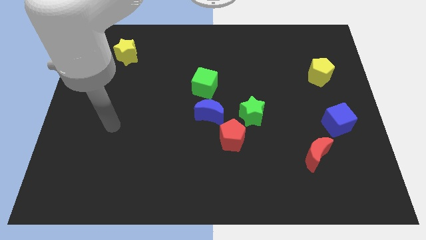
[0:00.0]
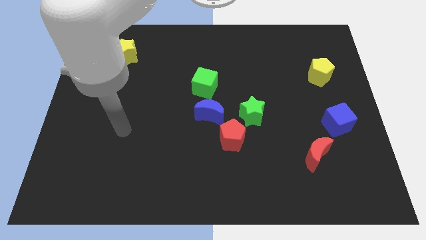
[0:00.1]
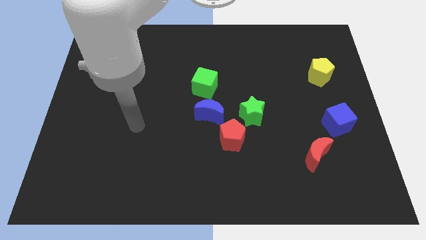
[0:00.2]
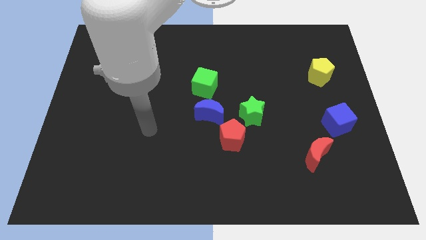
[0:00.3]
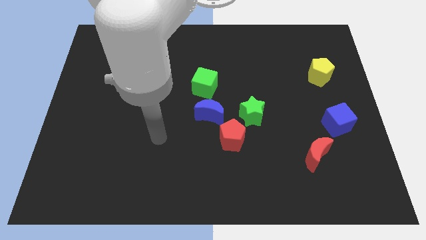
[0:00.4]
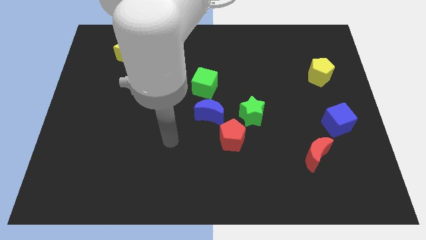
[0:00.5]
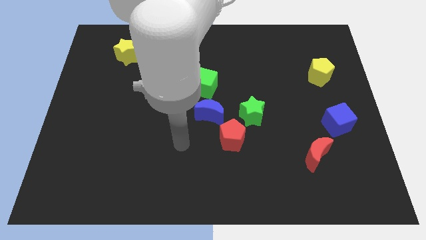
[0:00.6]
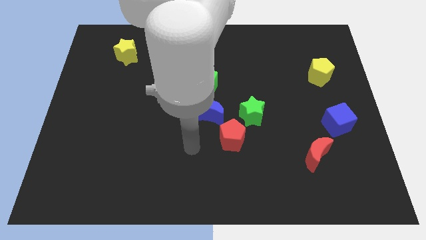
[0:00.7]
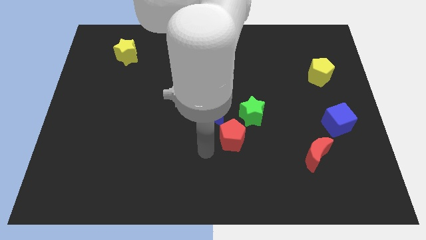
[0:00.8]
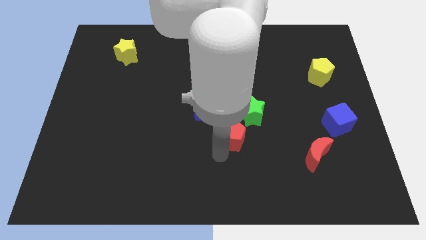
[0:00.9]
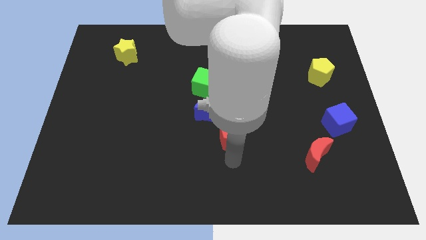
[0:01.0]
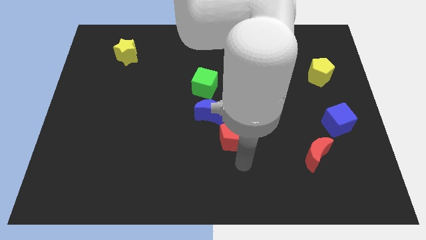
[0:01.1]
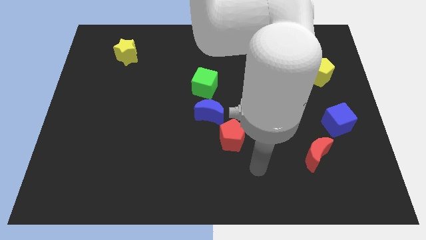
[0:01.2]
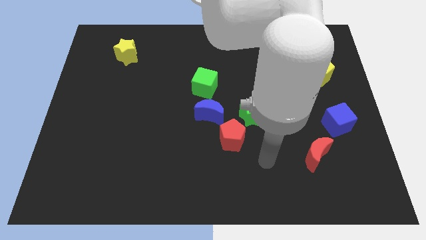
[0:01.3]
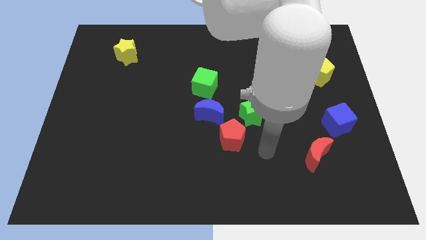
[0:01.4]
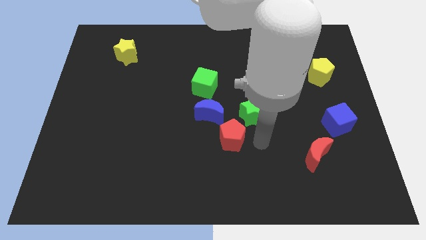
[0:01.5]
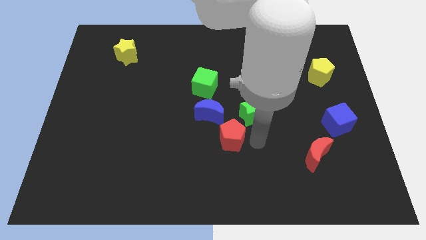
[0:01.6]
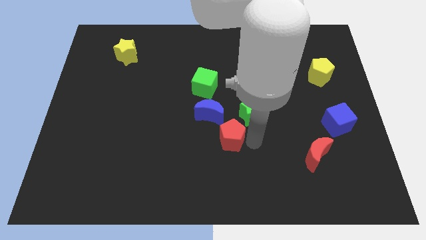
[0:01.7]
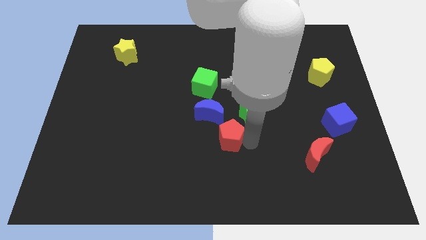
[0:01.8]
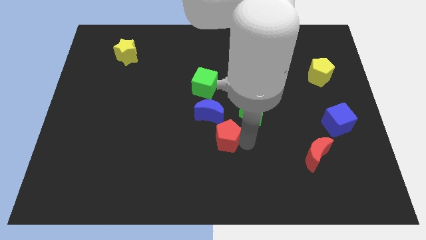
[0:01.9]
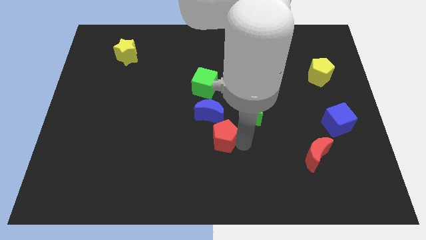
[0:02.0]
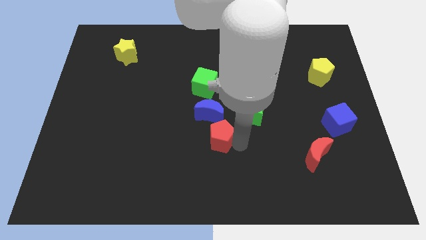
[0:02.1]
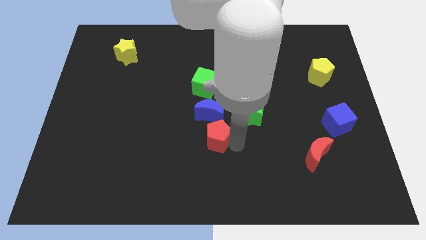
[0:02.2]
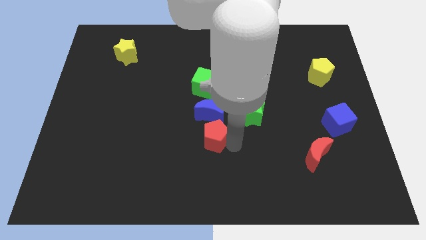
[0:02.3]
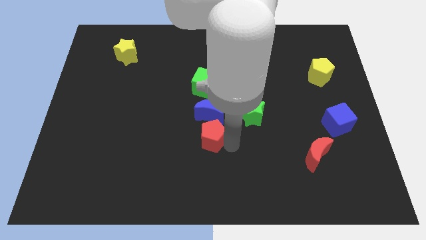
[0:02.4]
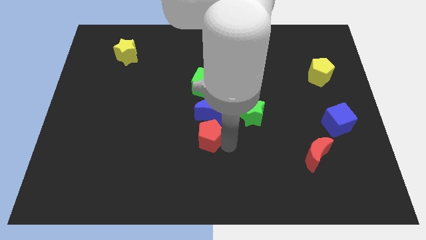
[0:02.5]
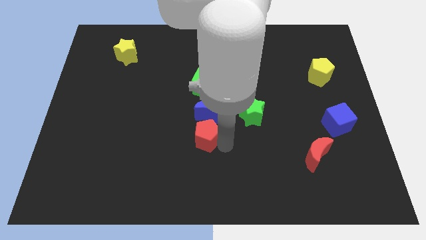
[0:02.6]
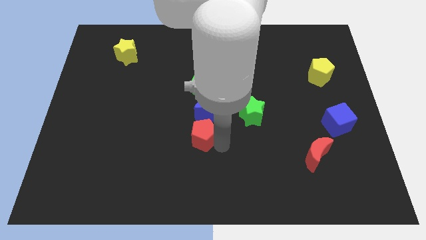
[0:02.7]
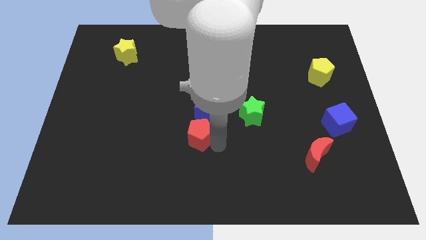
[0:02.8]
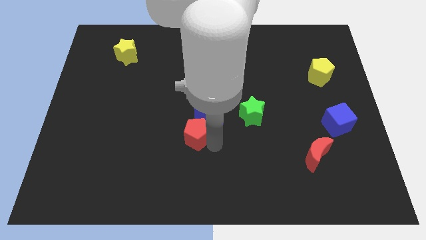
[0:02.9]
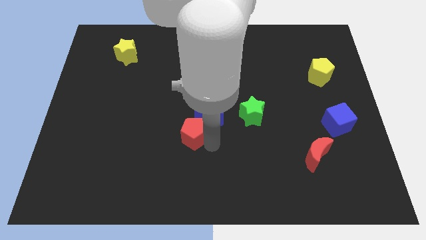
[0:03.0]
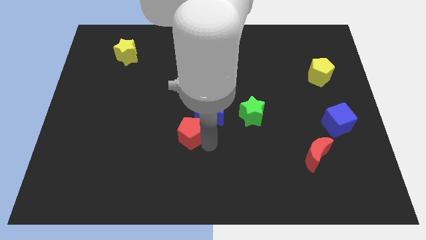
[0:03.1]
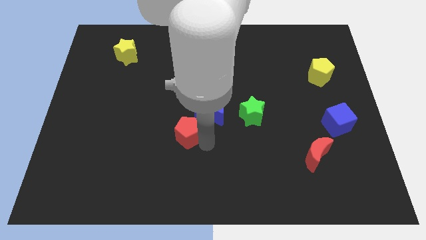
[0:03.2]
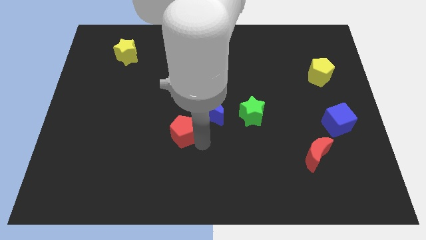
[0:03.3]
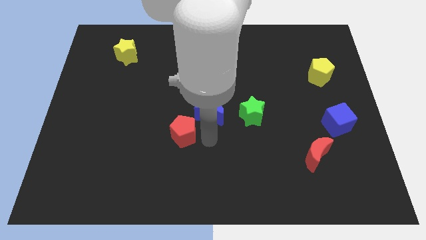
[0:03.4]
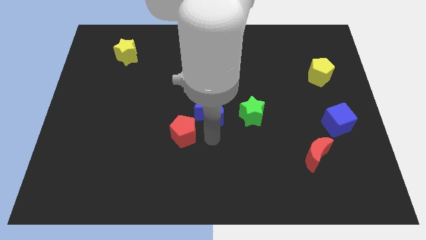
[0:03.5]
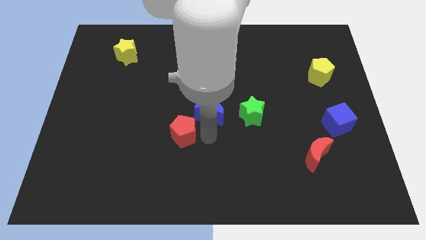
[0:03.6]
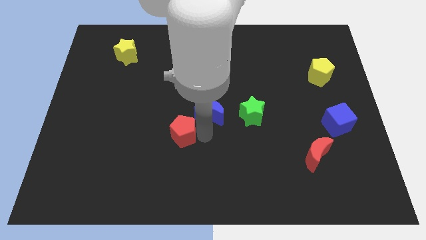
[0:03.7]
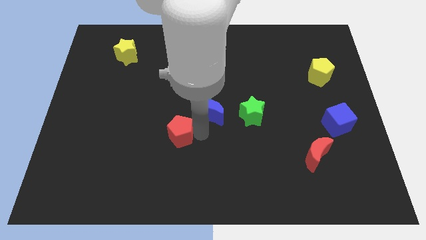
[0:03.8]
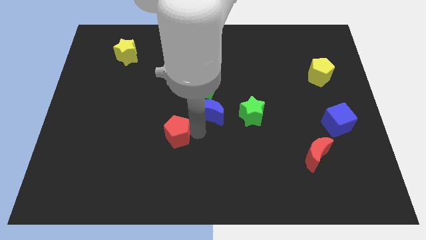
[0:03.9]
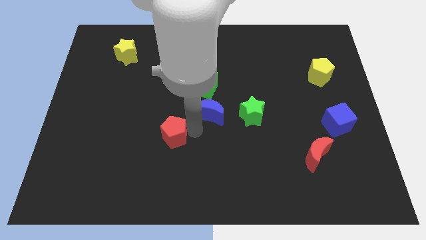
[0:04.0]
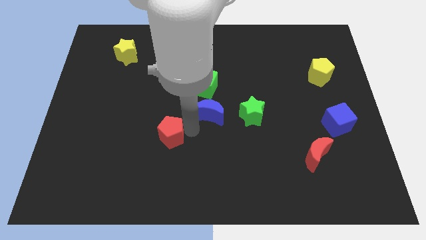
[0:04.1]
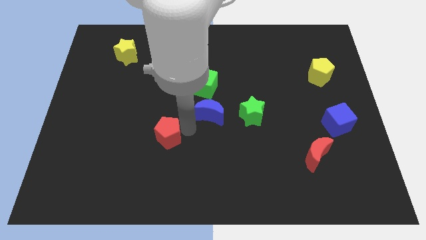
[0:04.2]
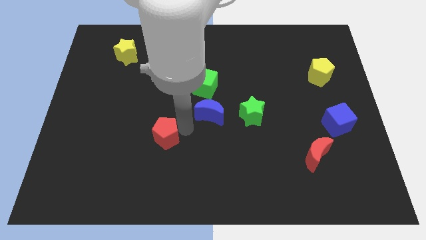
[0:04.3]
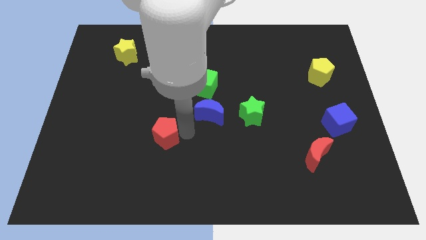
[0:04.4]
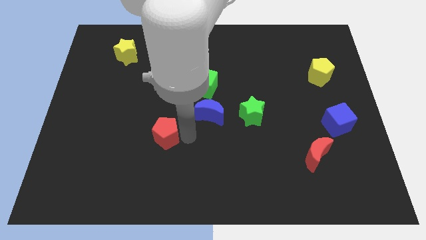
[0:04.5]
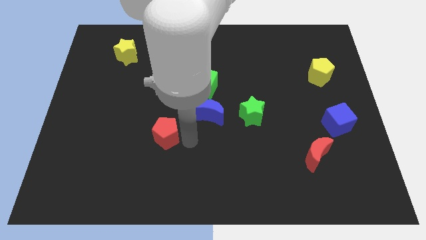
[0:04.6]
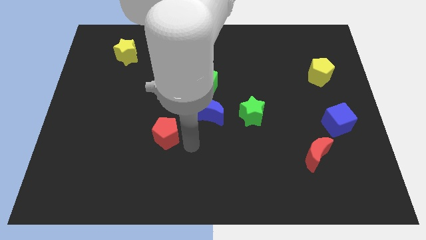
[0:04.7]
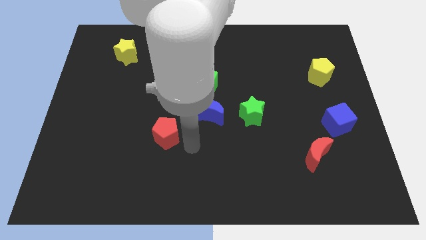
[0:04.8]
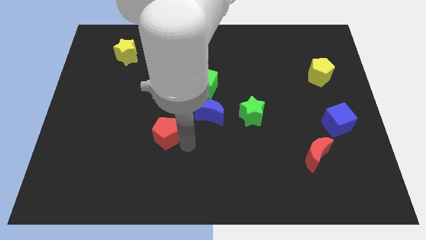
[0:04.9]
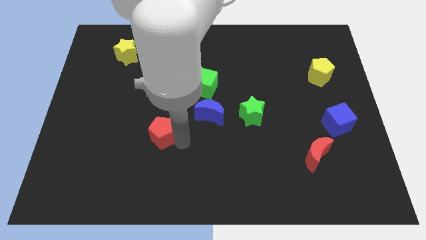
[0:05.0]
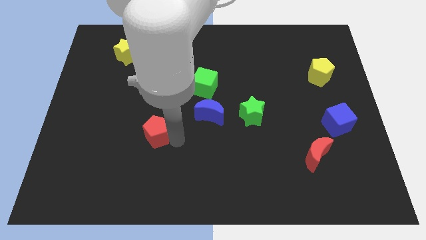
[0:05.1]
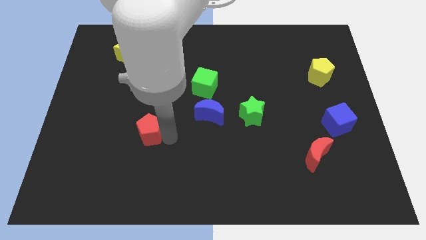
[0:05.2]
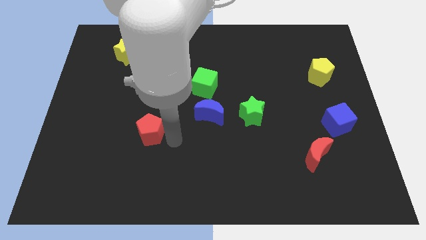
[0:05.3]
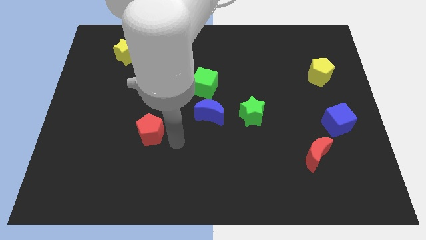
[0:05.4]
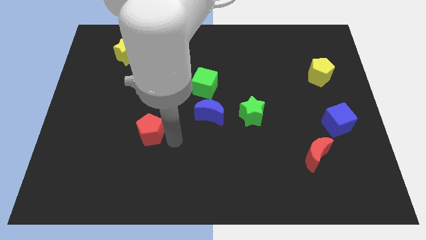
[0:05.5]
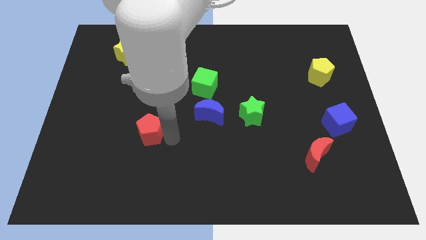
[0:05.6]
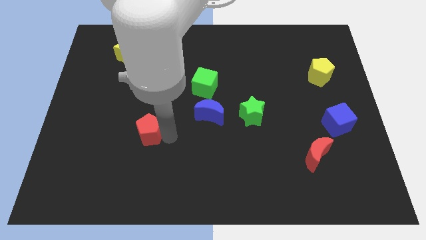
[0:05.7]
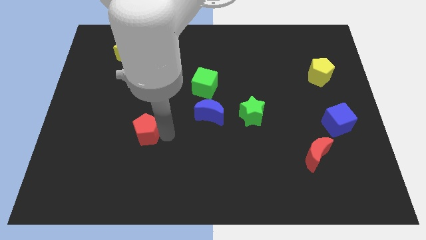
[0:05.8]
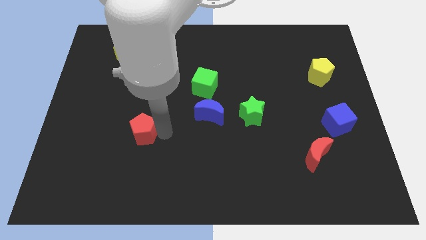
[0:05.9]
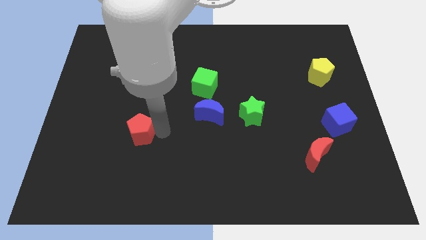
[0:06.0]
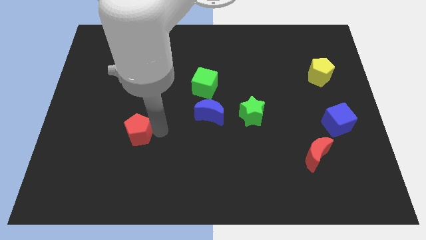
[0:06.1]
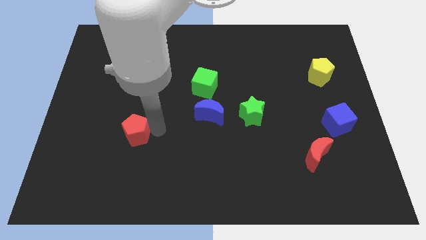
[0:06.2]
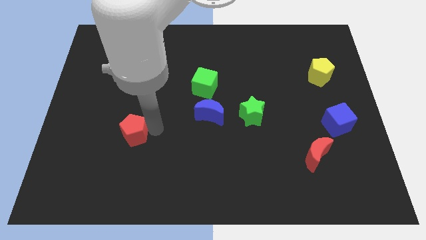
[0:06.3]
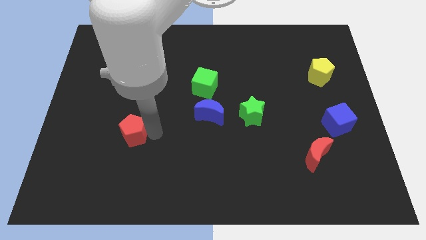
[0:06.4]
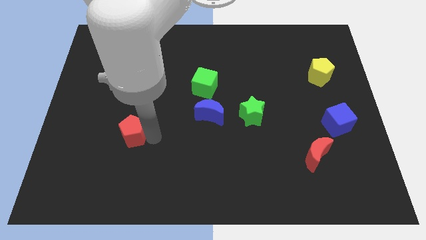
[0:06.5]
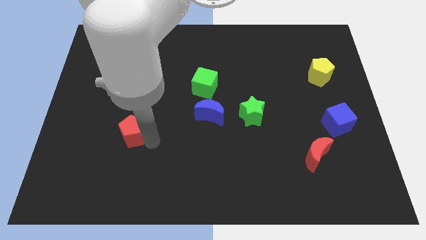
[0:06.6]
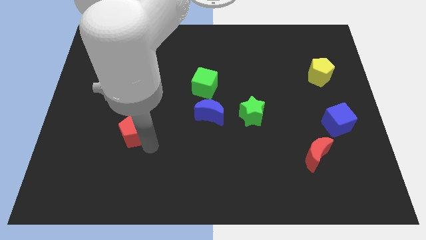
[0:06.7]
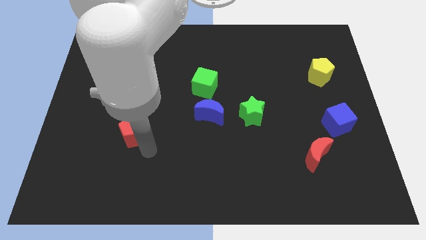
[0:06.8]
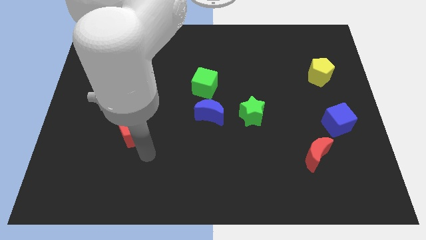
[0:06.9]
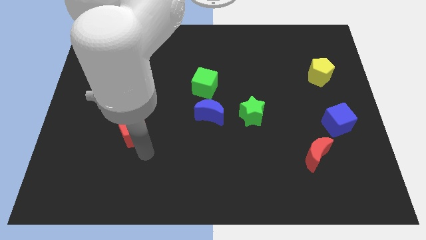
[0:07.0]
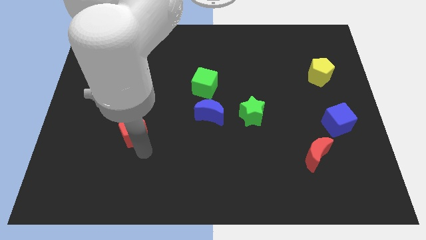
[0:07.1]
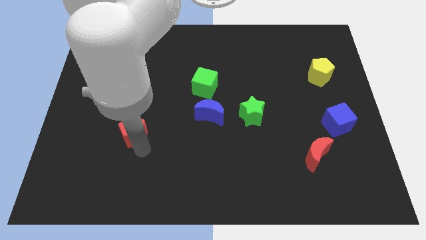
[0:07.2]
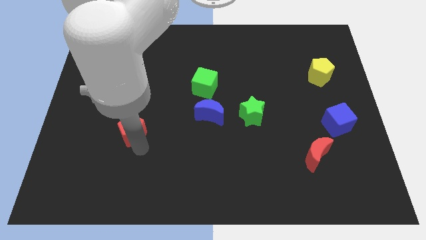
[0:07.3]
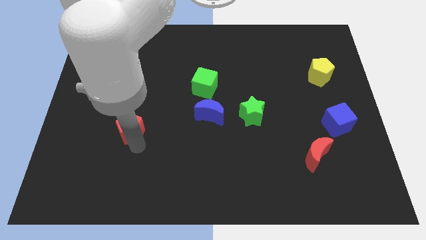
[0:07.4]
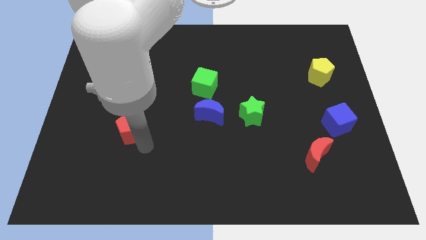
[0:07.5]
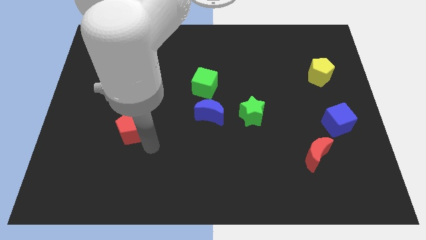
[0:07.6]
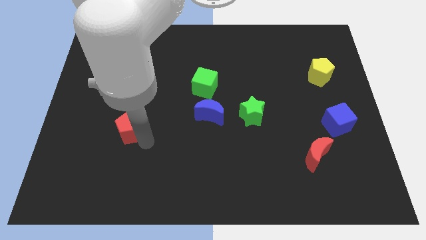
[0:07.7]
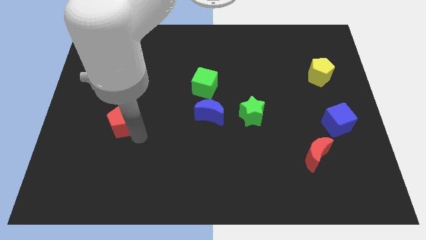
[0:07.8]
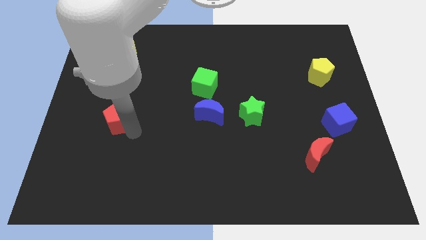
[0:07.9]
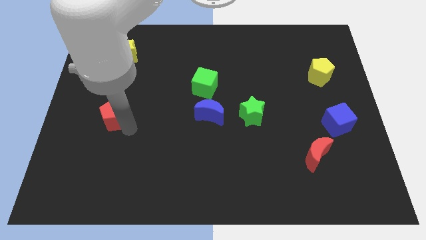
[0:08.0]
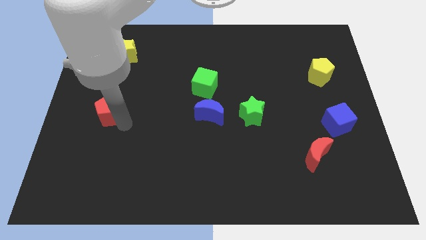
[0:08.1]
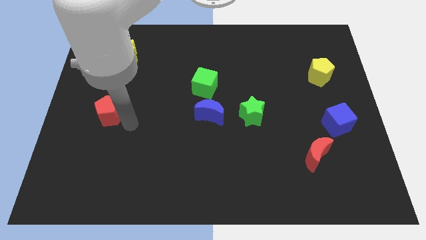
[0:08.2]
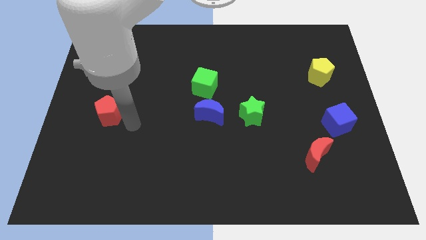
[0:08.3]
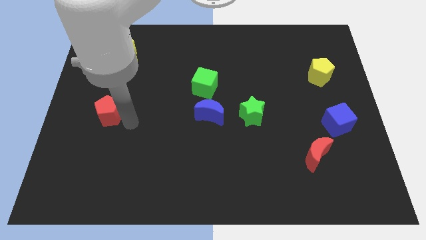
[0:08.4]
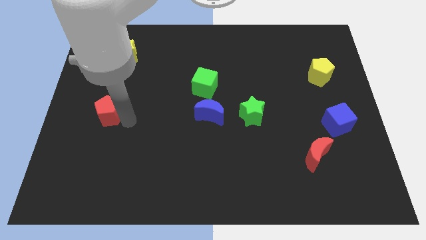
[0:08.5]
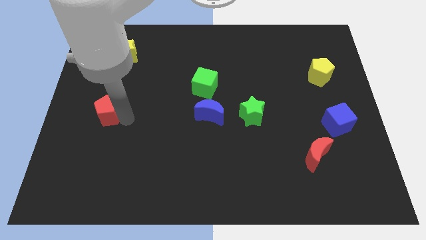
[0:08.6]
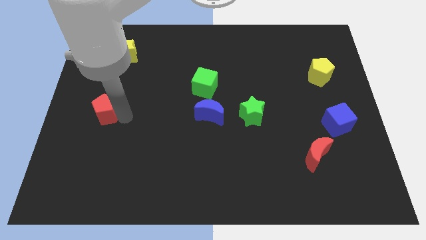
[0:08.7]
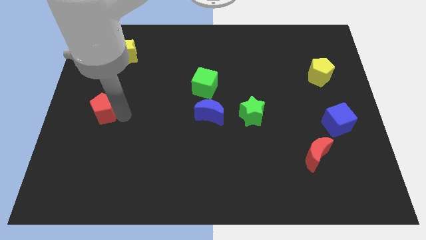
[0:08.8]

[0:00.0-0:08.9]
move the red pentagon to the left side of the board
